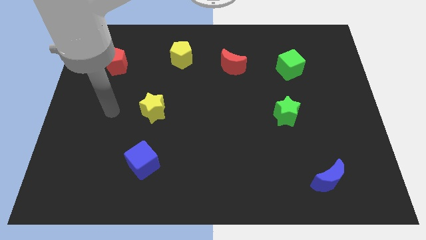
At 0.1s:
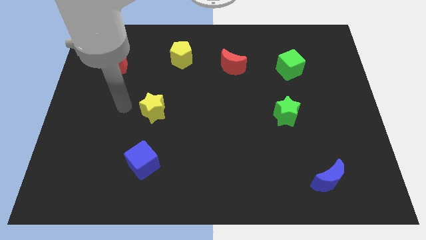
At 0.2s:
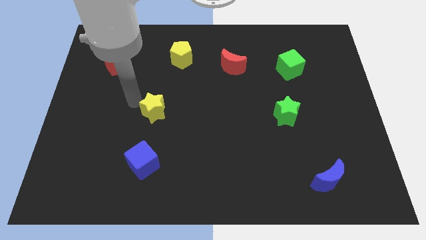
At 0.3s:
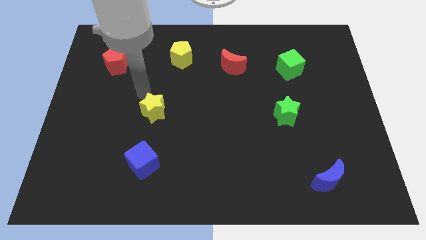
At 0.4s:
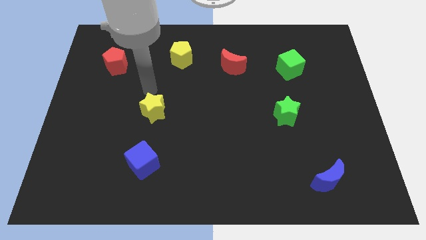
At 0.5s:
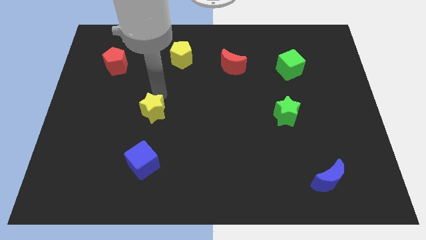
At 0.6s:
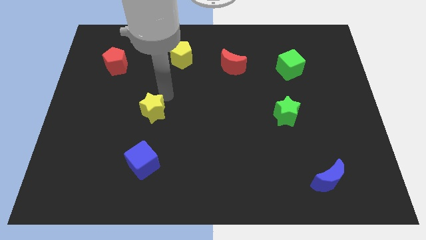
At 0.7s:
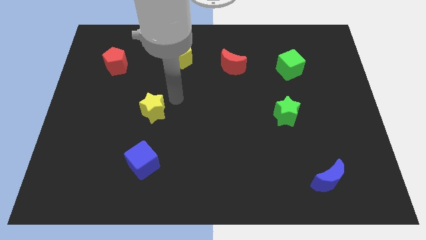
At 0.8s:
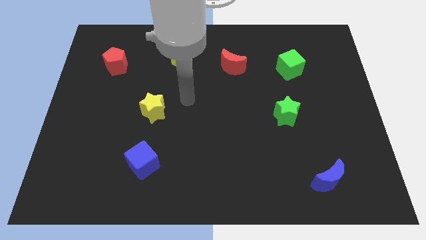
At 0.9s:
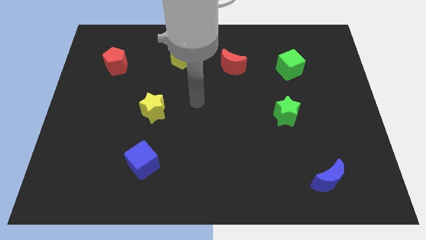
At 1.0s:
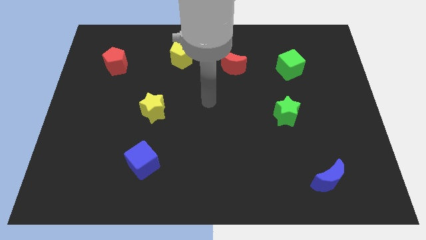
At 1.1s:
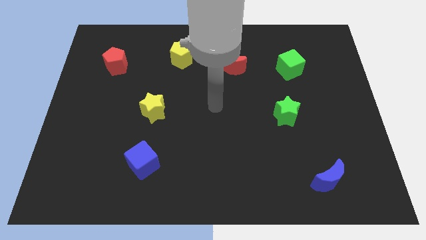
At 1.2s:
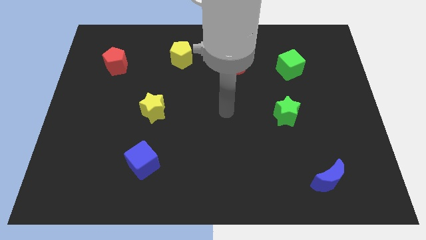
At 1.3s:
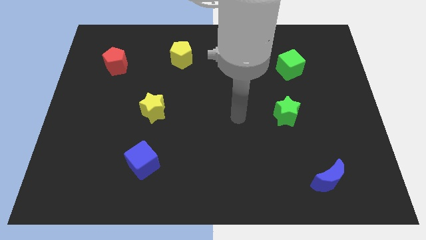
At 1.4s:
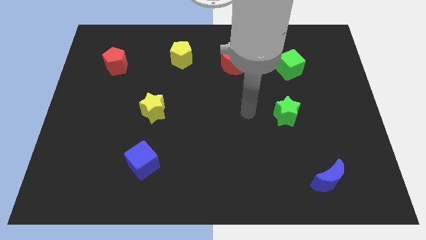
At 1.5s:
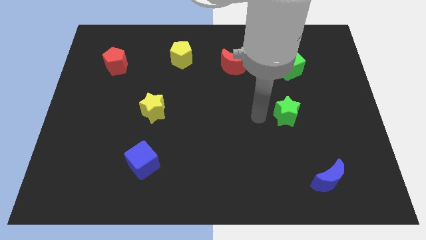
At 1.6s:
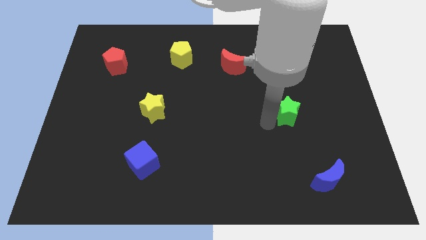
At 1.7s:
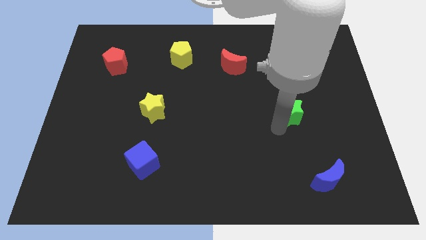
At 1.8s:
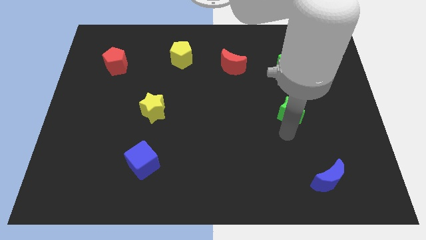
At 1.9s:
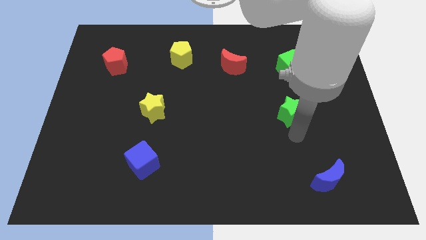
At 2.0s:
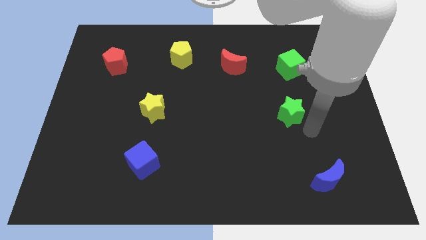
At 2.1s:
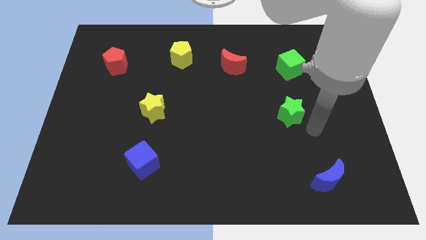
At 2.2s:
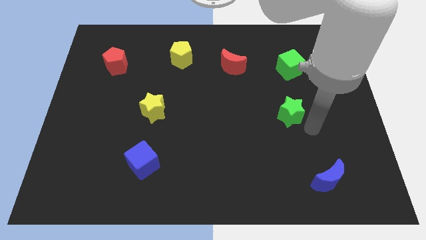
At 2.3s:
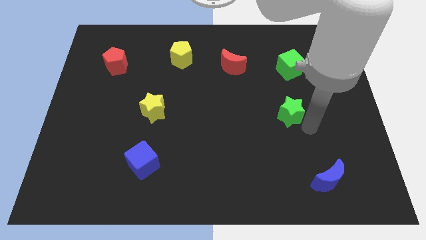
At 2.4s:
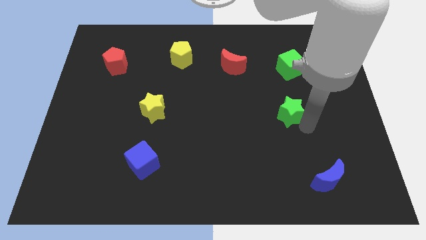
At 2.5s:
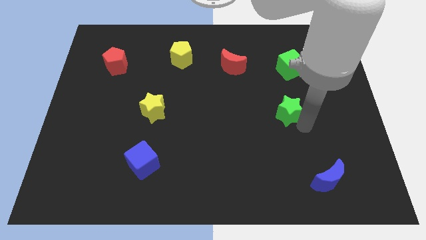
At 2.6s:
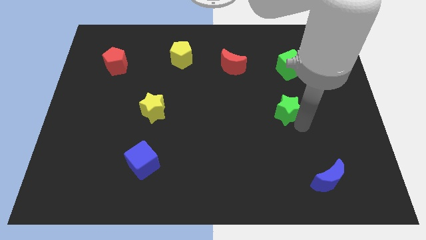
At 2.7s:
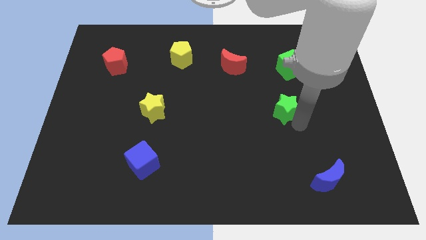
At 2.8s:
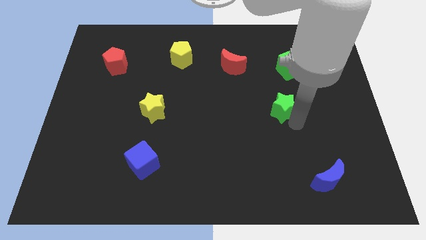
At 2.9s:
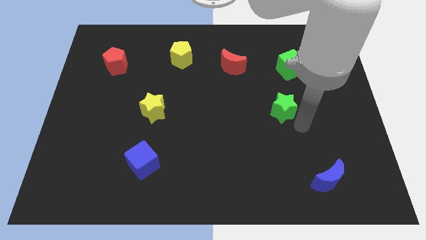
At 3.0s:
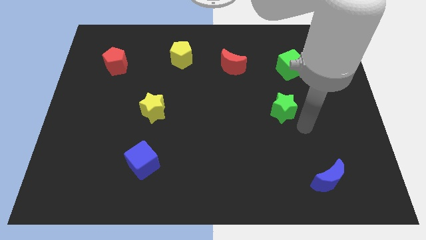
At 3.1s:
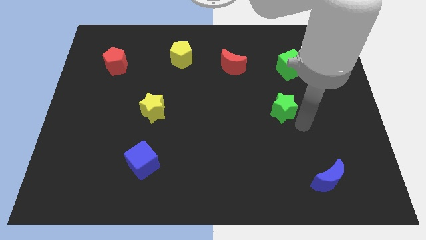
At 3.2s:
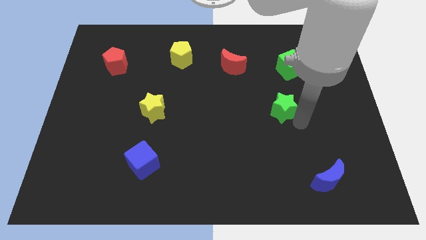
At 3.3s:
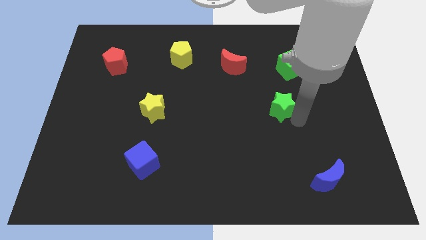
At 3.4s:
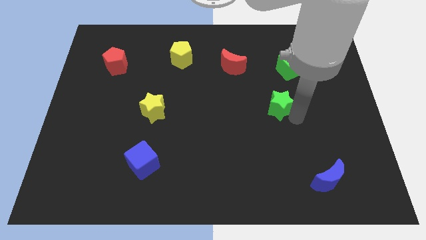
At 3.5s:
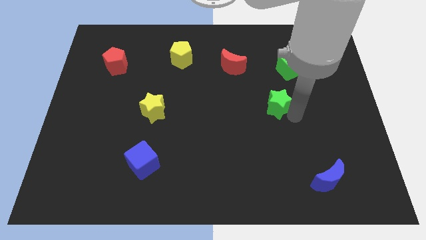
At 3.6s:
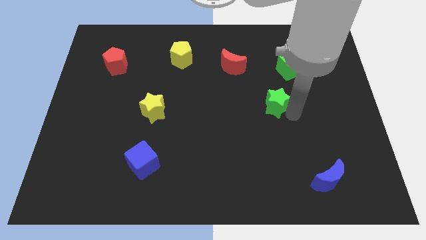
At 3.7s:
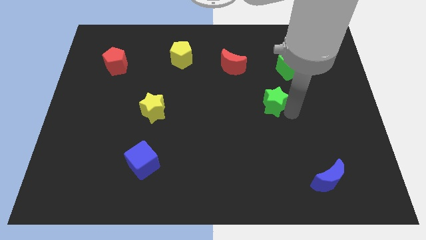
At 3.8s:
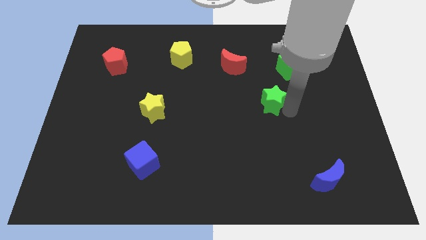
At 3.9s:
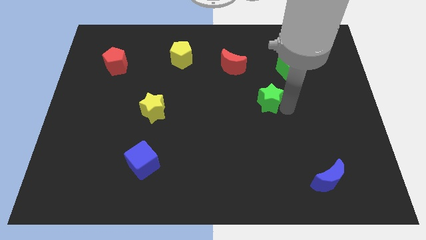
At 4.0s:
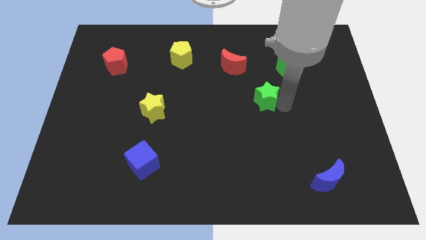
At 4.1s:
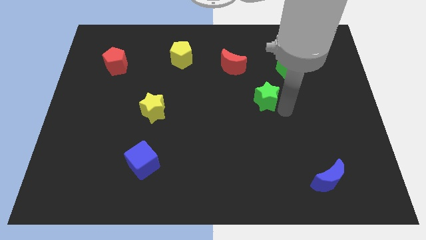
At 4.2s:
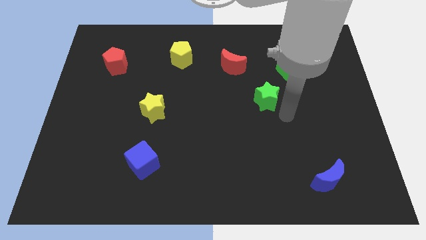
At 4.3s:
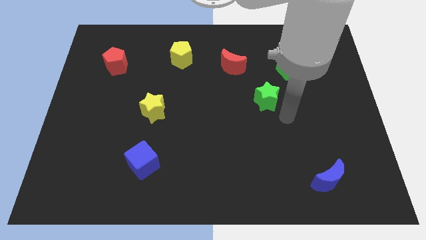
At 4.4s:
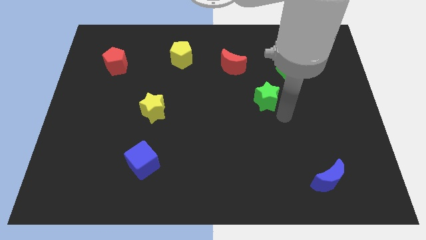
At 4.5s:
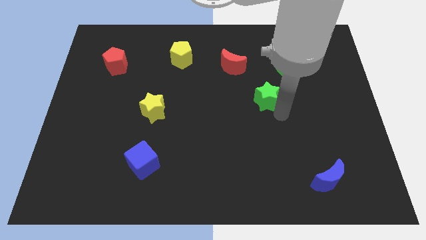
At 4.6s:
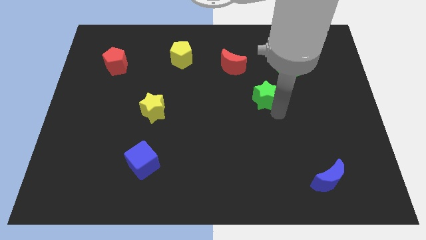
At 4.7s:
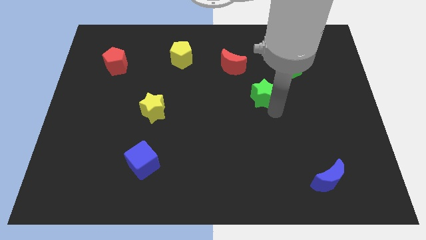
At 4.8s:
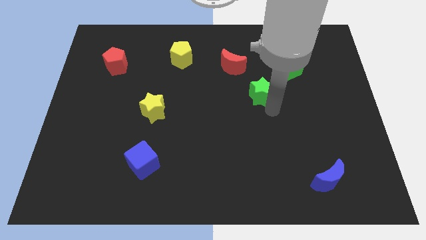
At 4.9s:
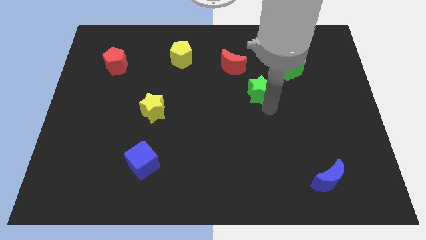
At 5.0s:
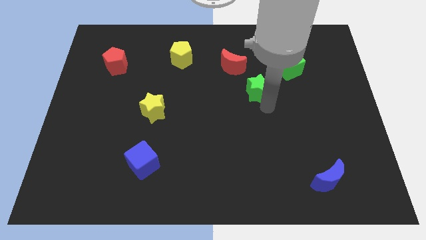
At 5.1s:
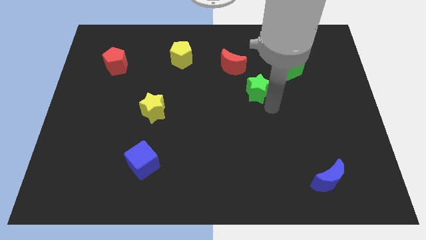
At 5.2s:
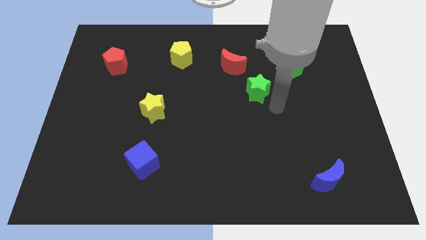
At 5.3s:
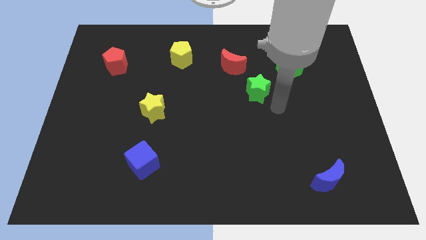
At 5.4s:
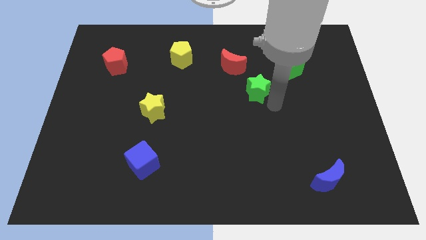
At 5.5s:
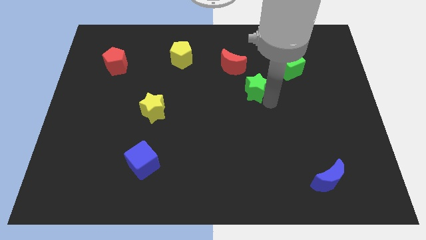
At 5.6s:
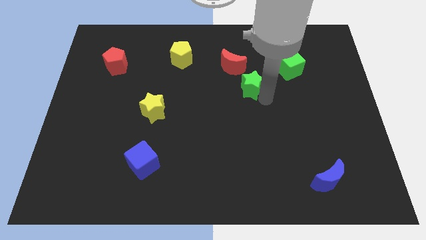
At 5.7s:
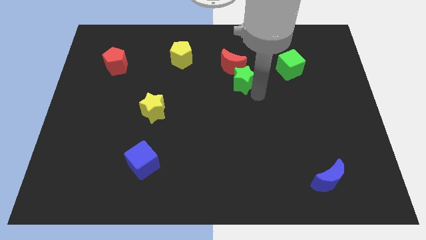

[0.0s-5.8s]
slide the green star to the red moon
